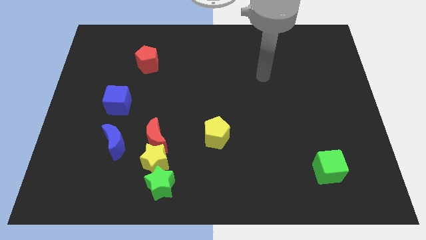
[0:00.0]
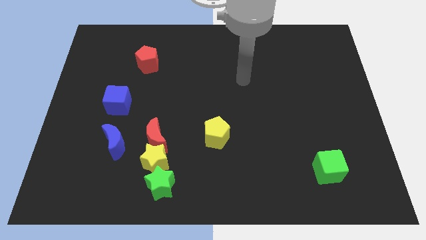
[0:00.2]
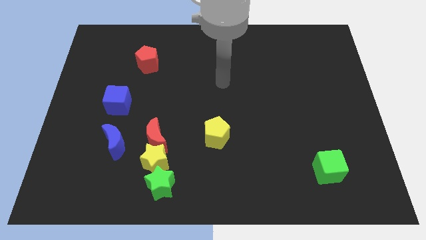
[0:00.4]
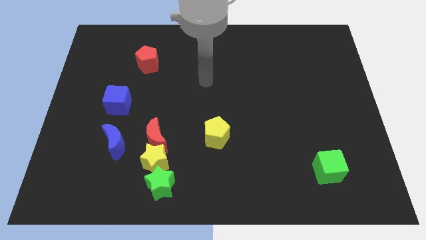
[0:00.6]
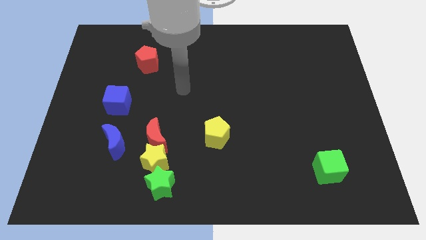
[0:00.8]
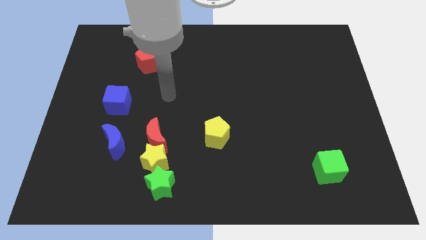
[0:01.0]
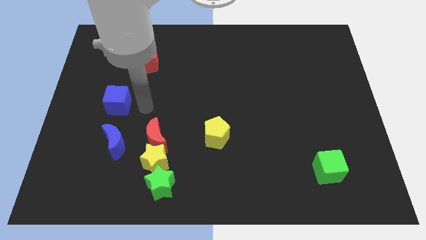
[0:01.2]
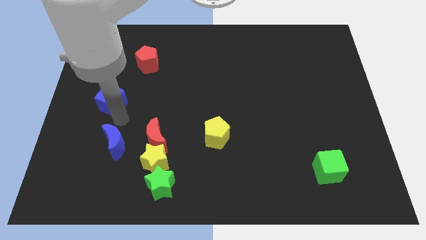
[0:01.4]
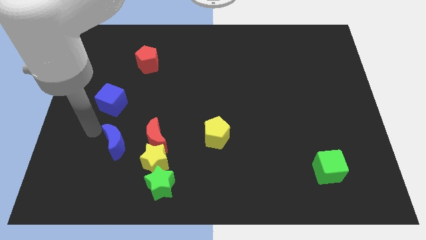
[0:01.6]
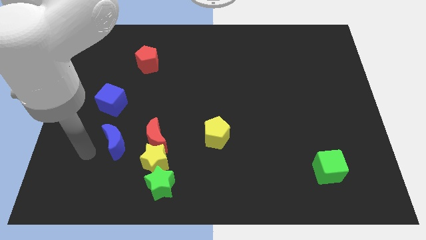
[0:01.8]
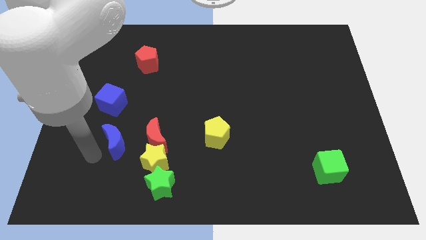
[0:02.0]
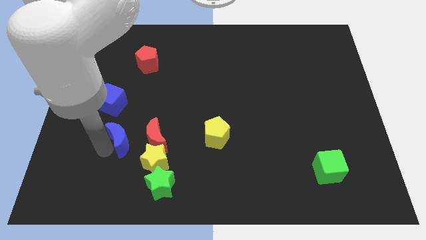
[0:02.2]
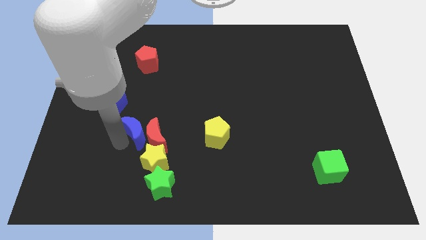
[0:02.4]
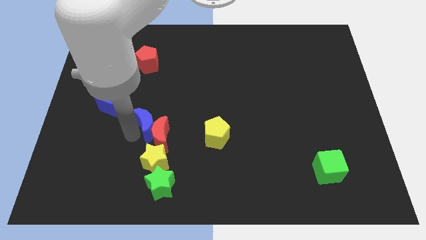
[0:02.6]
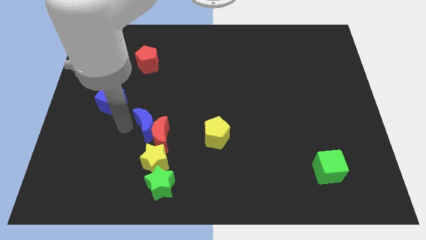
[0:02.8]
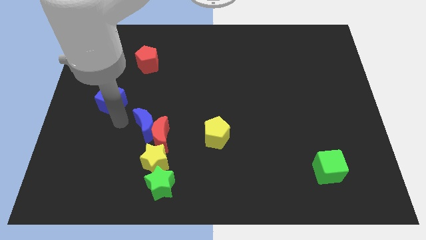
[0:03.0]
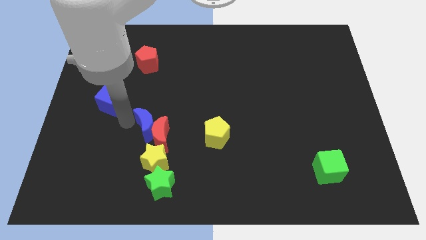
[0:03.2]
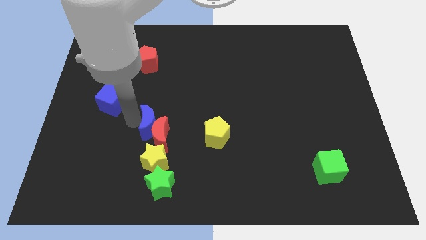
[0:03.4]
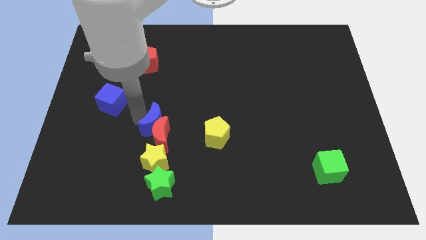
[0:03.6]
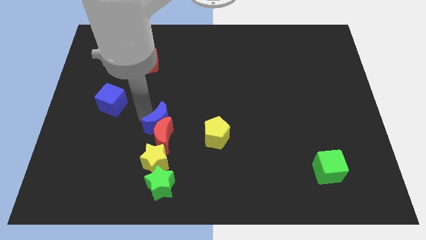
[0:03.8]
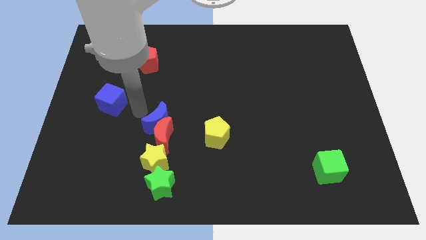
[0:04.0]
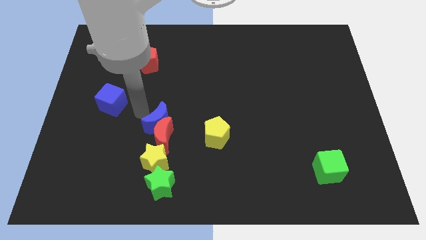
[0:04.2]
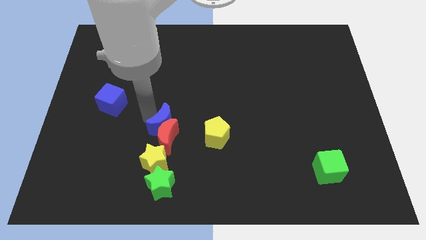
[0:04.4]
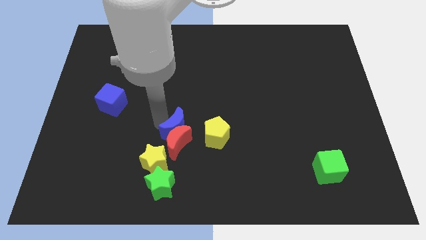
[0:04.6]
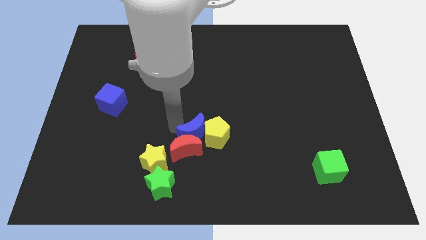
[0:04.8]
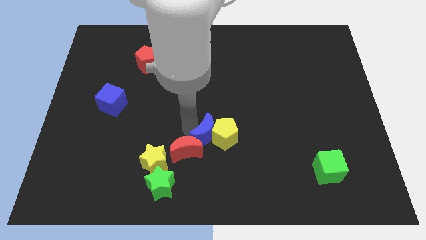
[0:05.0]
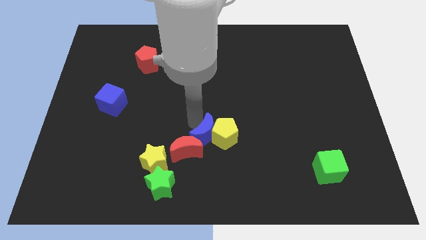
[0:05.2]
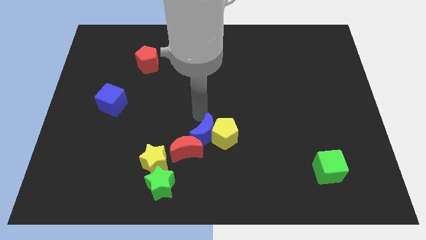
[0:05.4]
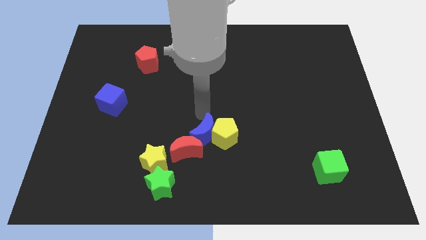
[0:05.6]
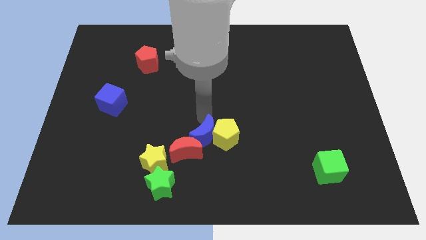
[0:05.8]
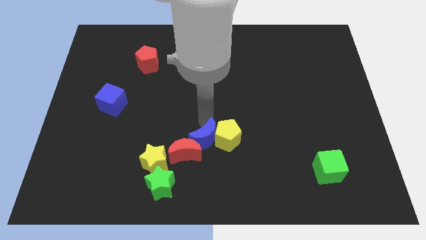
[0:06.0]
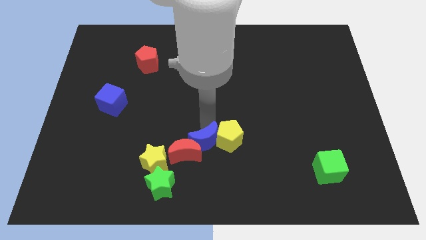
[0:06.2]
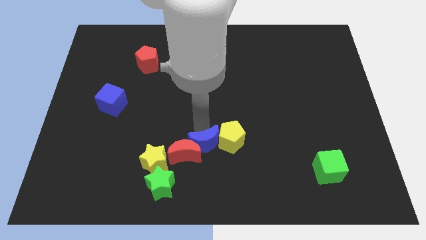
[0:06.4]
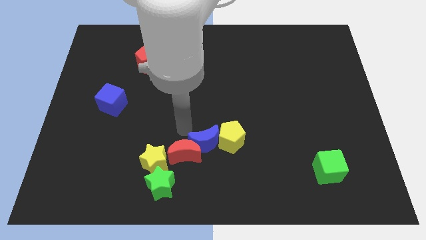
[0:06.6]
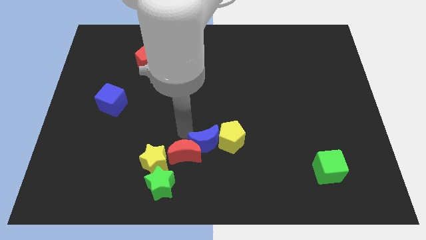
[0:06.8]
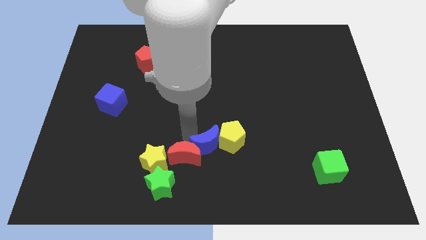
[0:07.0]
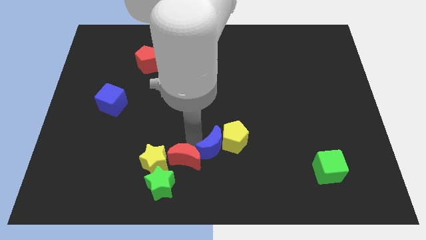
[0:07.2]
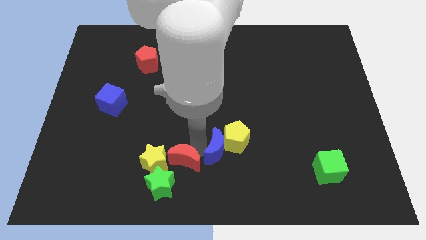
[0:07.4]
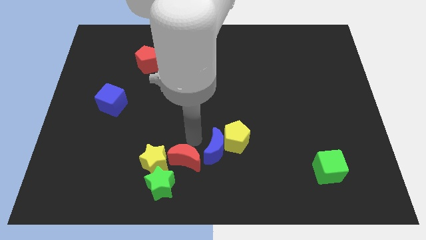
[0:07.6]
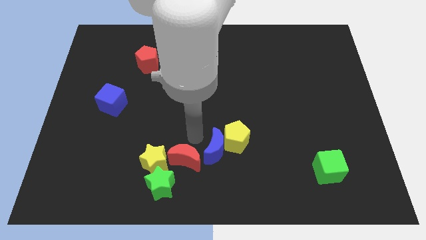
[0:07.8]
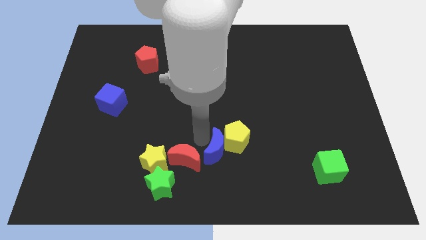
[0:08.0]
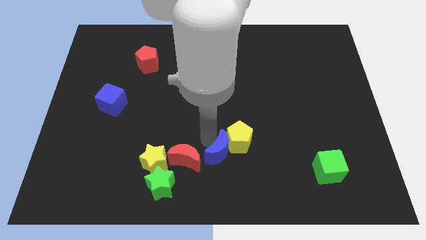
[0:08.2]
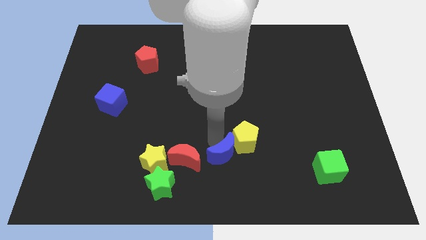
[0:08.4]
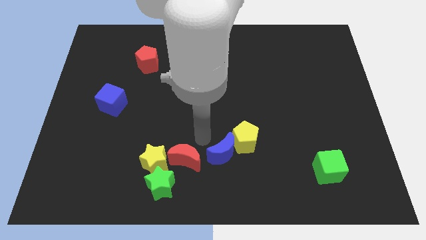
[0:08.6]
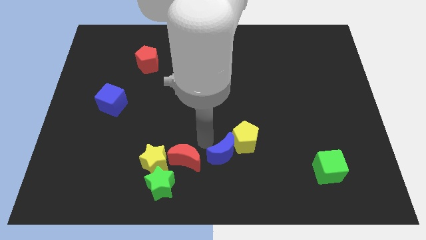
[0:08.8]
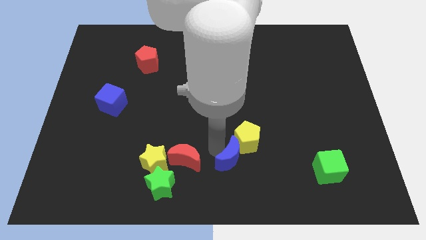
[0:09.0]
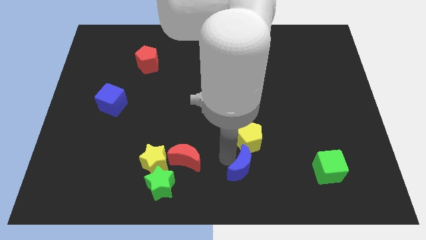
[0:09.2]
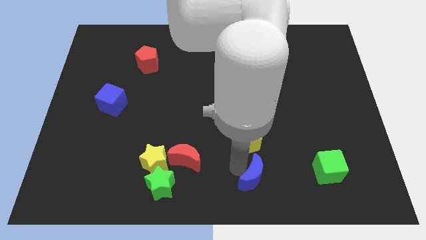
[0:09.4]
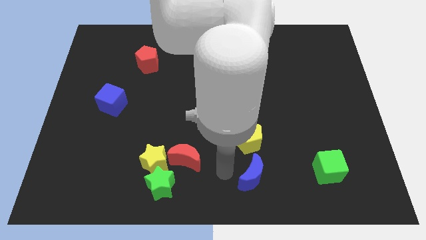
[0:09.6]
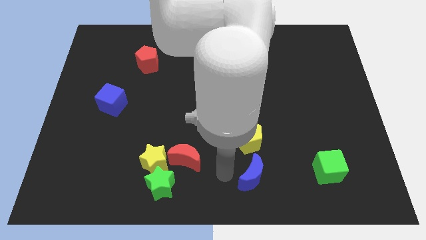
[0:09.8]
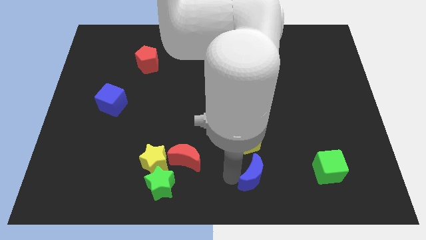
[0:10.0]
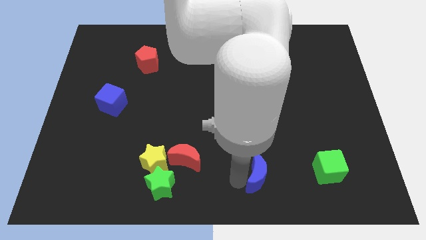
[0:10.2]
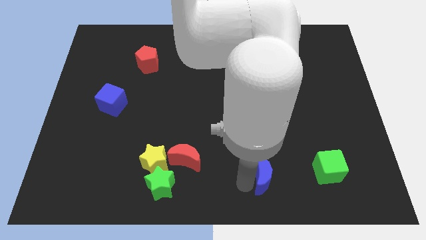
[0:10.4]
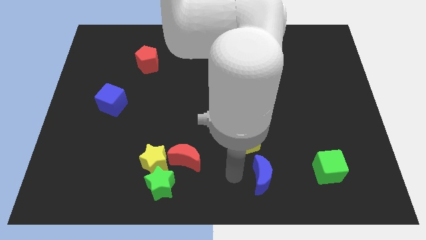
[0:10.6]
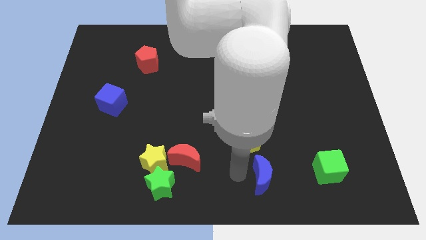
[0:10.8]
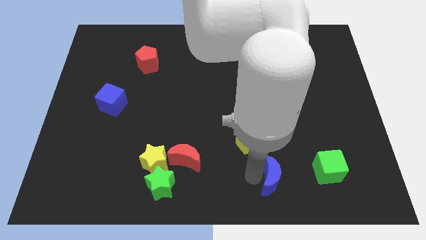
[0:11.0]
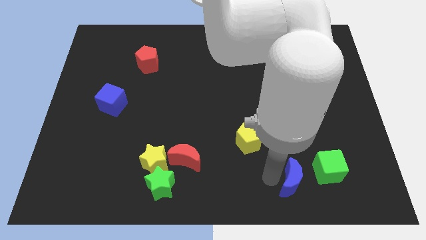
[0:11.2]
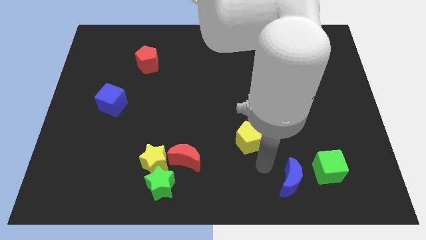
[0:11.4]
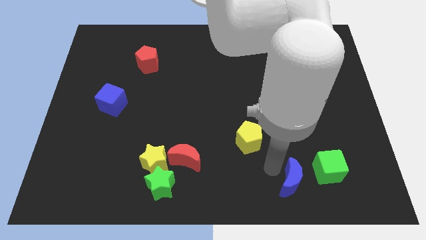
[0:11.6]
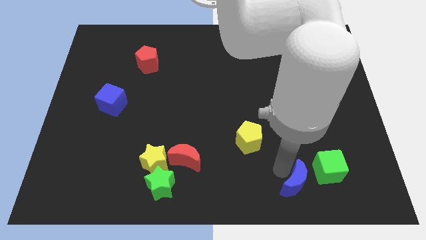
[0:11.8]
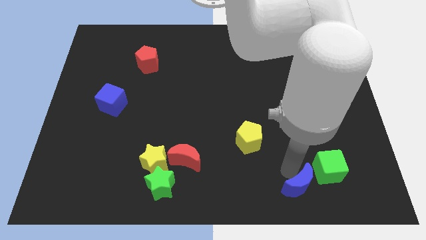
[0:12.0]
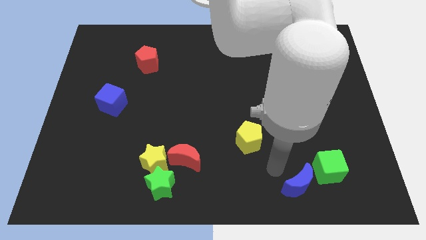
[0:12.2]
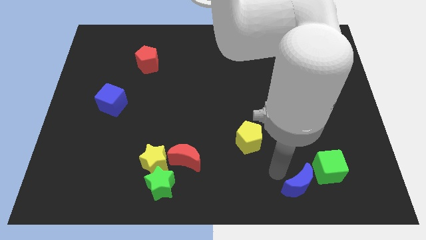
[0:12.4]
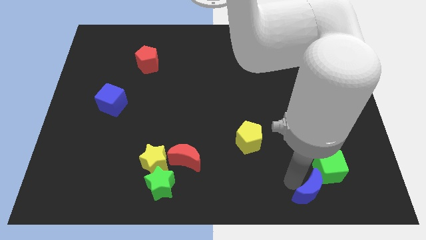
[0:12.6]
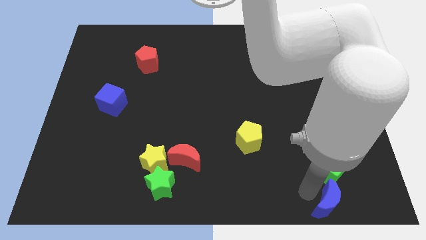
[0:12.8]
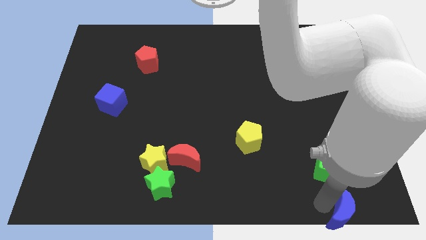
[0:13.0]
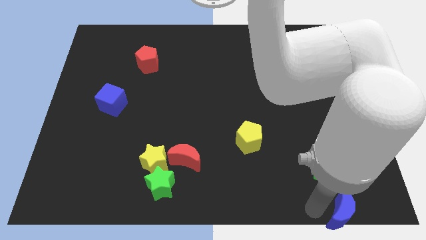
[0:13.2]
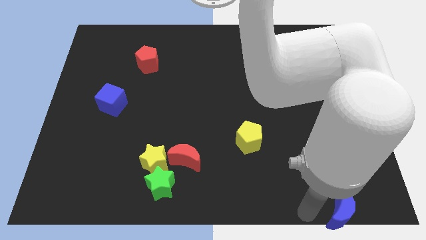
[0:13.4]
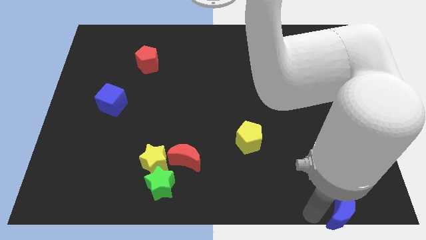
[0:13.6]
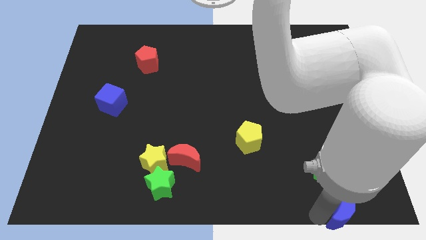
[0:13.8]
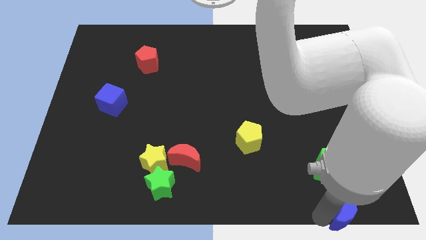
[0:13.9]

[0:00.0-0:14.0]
move the blue moon to the bottom right of the board
